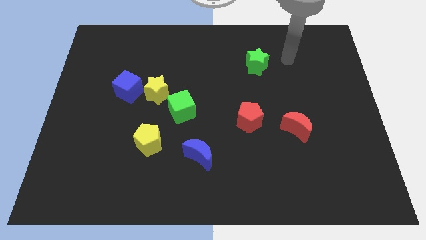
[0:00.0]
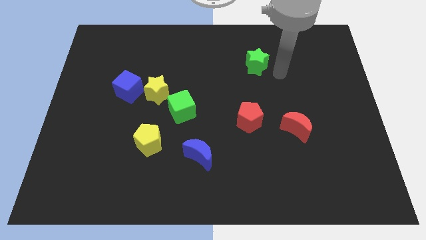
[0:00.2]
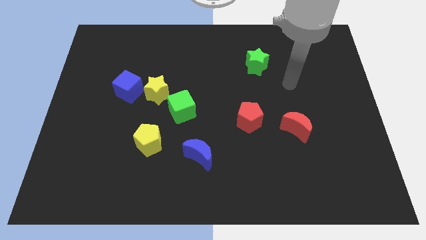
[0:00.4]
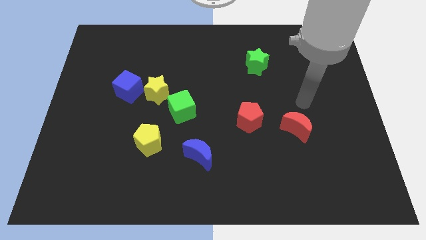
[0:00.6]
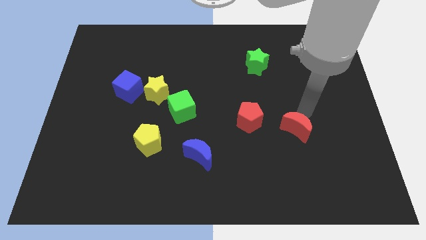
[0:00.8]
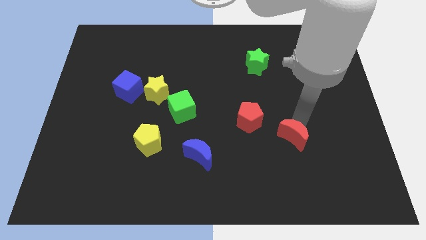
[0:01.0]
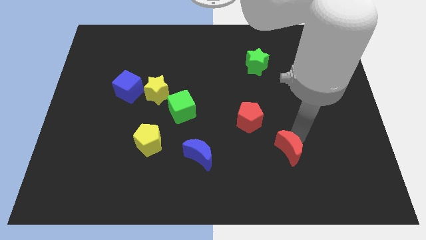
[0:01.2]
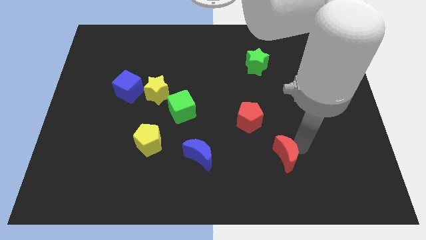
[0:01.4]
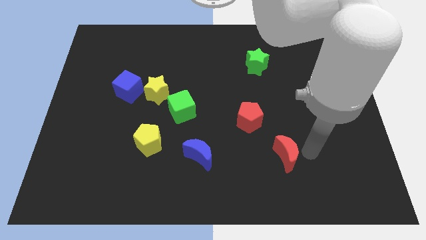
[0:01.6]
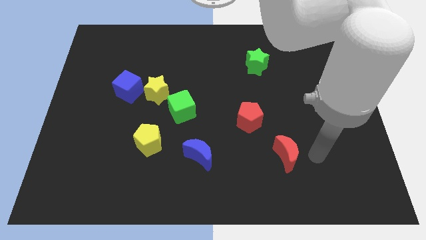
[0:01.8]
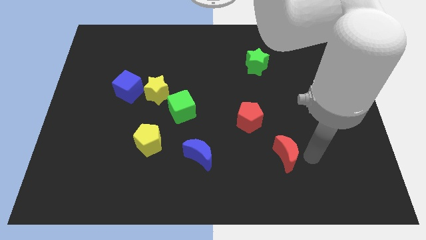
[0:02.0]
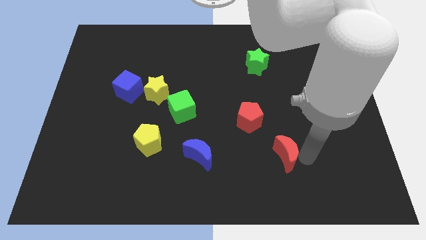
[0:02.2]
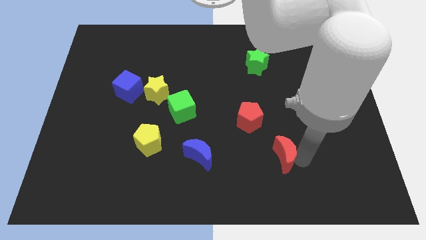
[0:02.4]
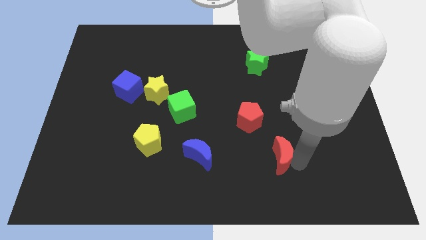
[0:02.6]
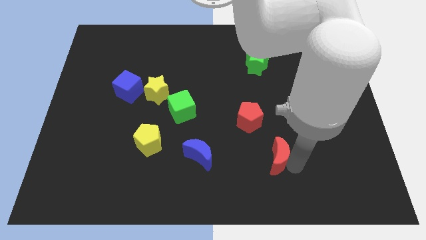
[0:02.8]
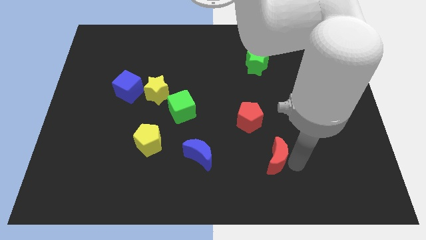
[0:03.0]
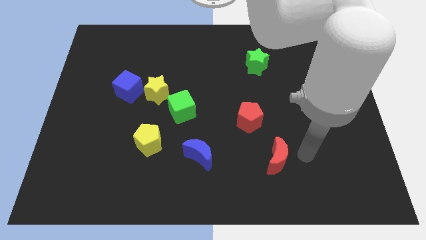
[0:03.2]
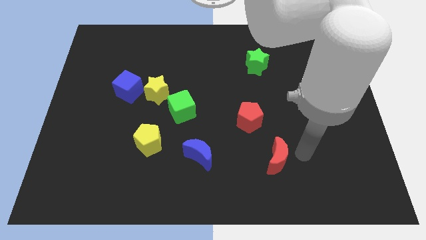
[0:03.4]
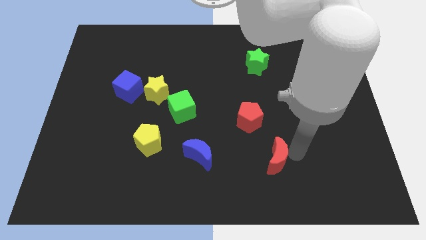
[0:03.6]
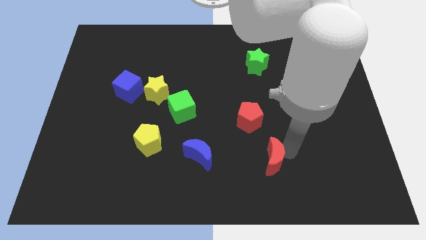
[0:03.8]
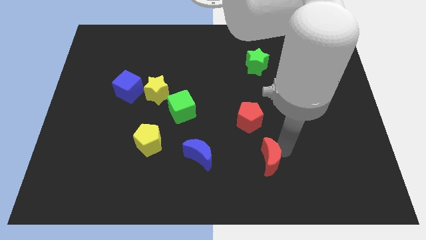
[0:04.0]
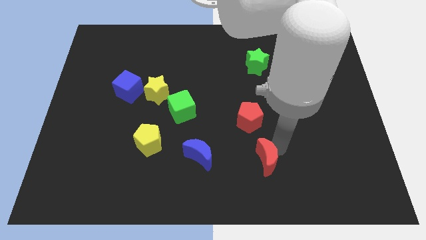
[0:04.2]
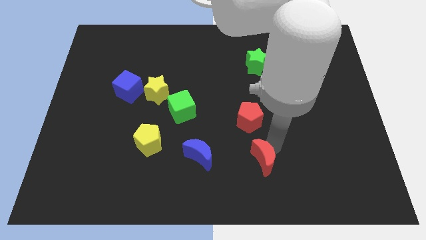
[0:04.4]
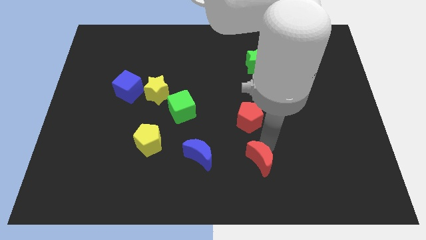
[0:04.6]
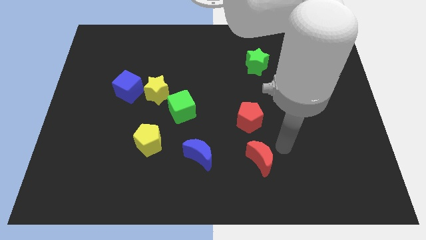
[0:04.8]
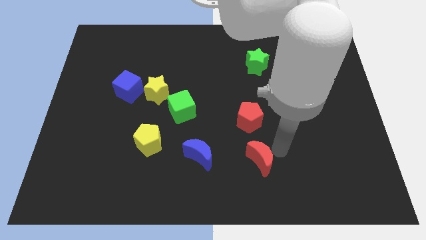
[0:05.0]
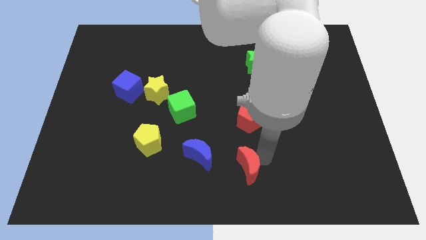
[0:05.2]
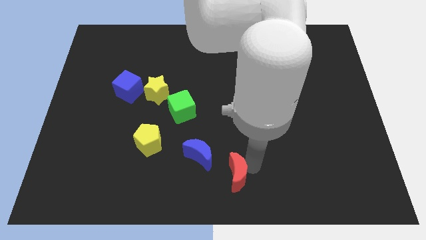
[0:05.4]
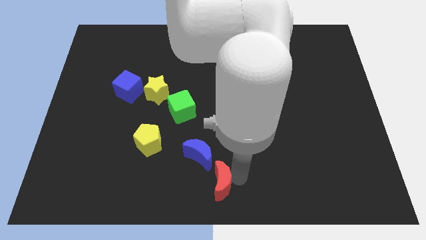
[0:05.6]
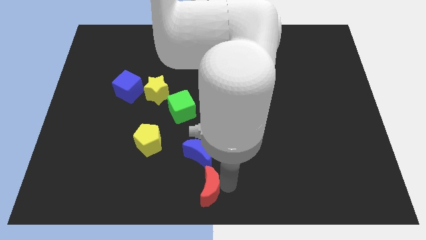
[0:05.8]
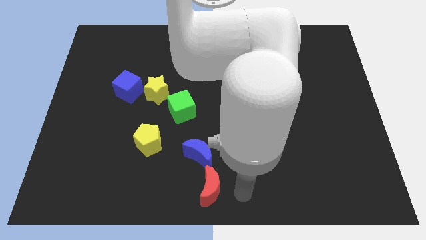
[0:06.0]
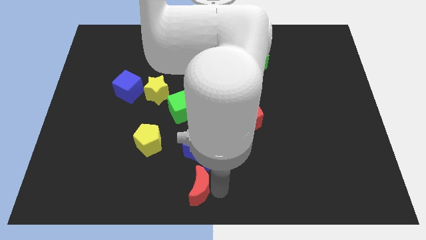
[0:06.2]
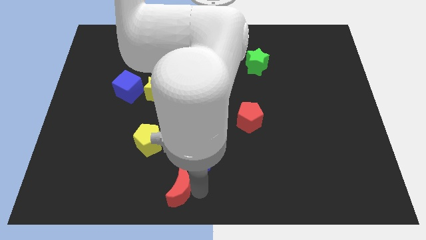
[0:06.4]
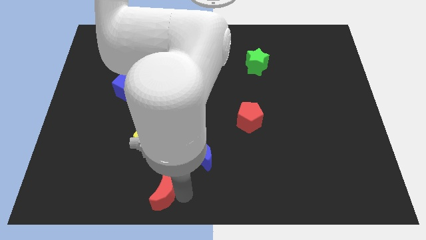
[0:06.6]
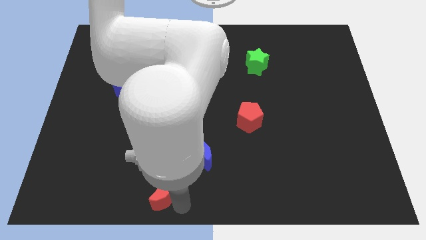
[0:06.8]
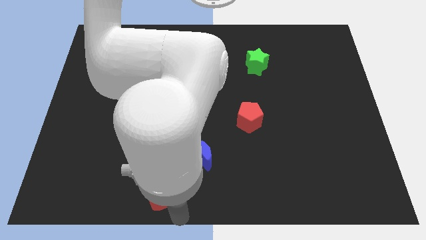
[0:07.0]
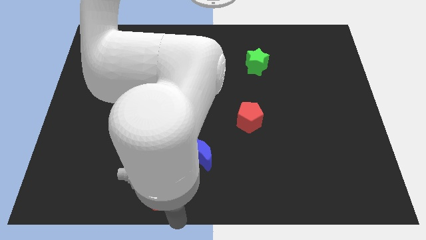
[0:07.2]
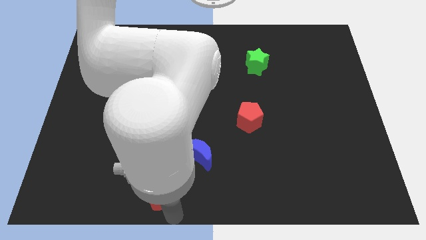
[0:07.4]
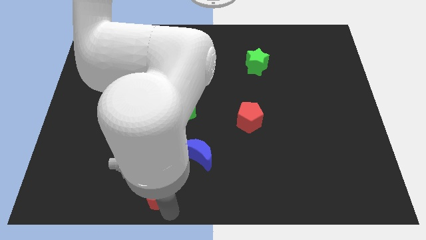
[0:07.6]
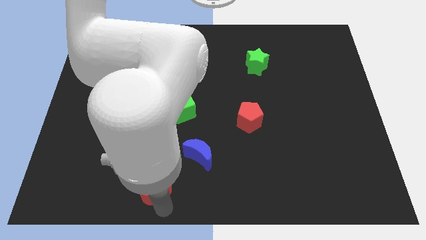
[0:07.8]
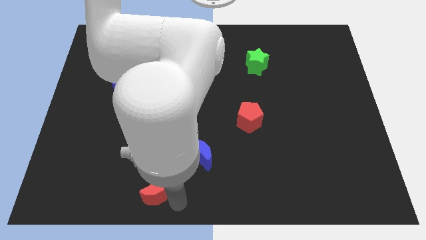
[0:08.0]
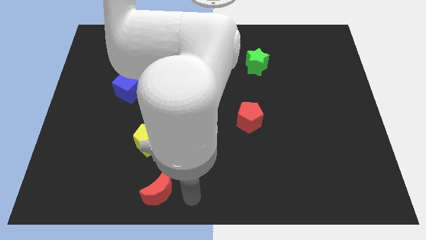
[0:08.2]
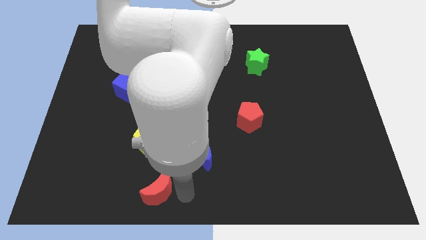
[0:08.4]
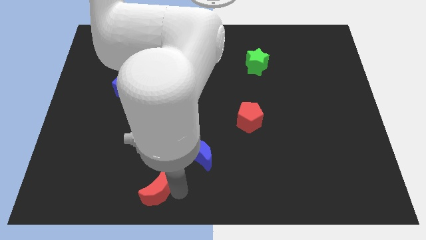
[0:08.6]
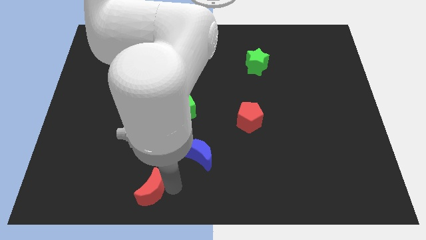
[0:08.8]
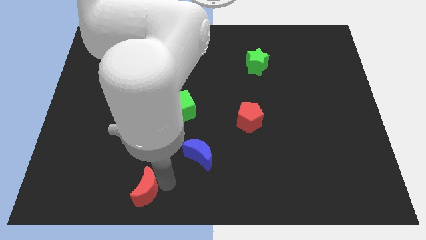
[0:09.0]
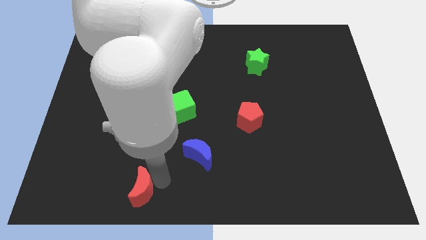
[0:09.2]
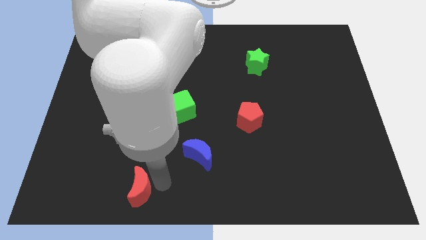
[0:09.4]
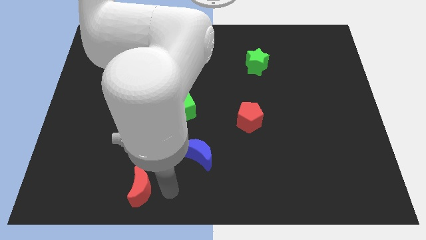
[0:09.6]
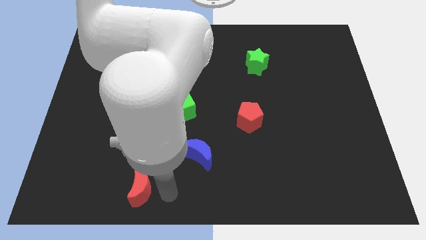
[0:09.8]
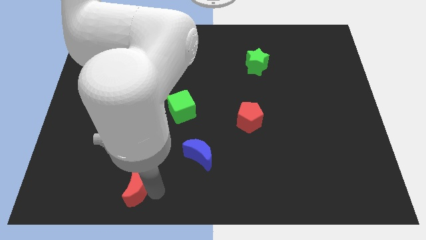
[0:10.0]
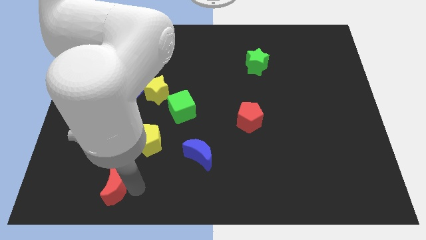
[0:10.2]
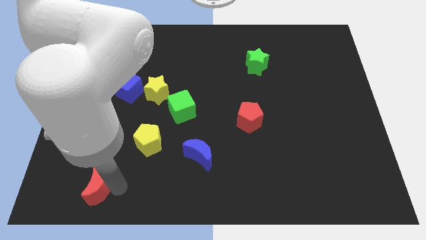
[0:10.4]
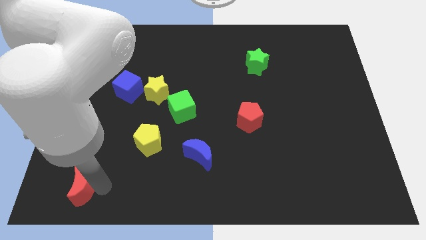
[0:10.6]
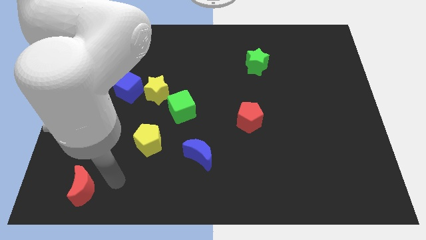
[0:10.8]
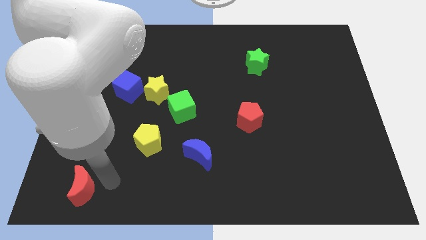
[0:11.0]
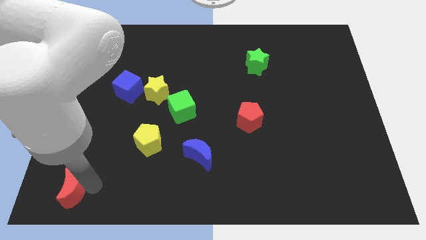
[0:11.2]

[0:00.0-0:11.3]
put the red moon to the bottom left of the board

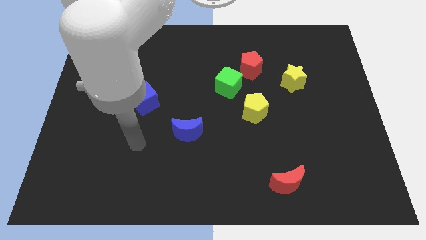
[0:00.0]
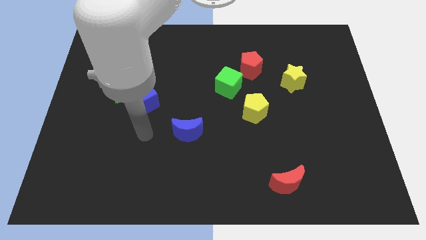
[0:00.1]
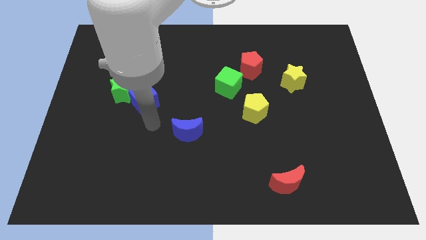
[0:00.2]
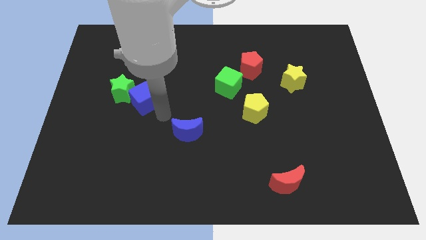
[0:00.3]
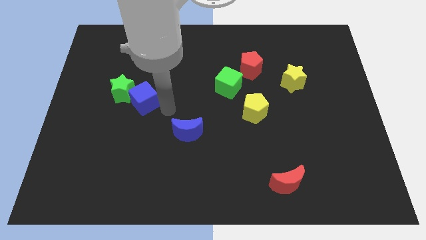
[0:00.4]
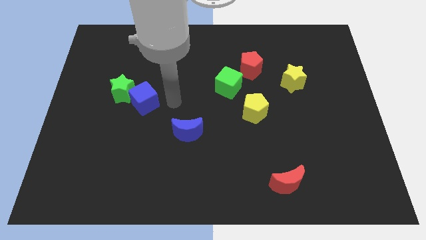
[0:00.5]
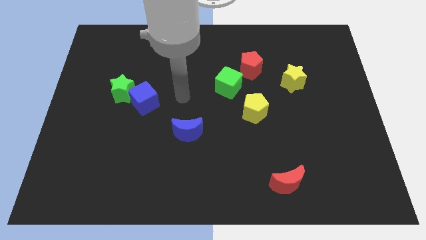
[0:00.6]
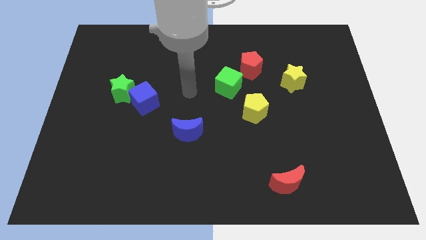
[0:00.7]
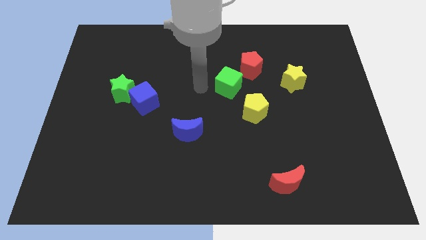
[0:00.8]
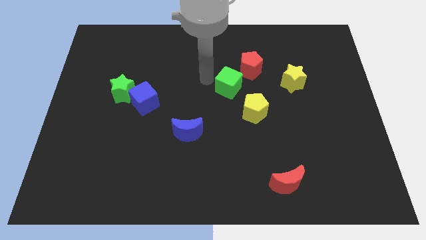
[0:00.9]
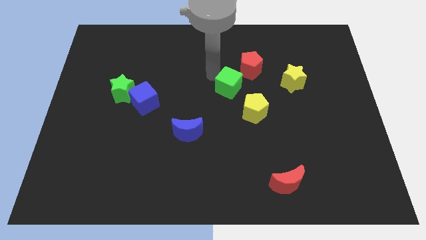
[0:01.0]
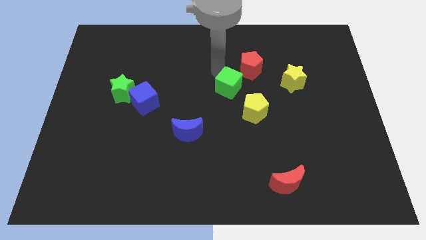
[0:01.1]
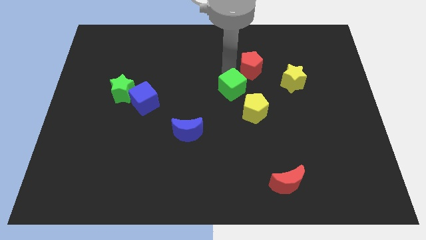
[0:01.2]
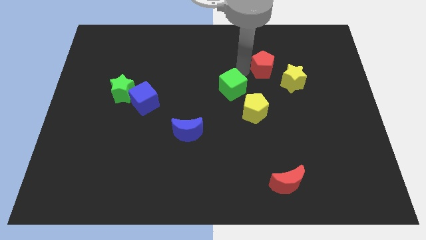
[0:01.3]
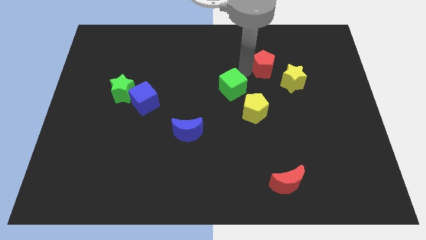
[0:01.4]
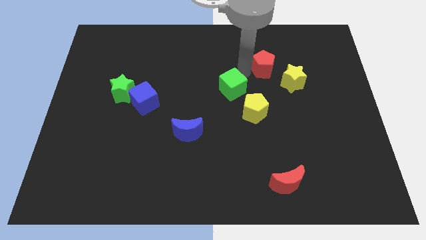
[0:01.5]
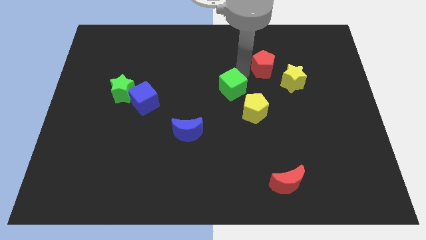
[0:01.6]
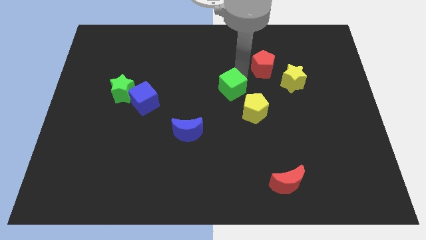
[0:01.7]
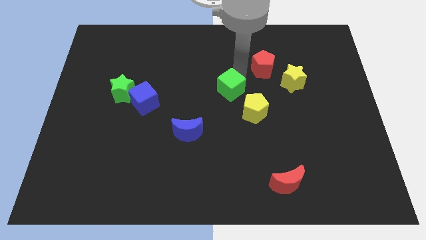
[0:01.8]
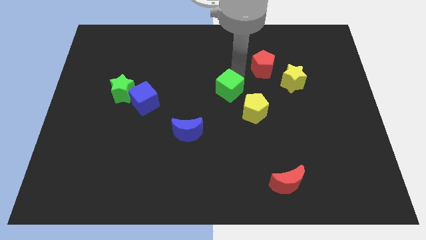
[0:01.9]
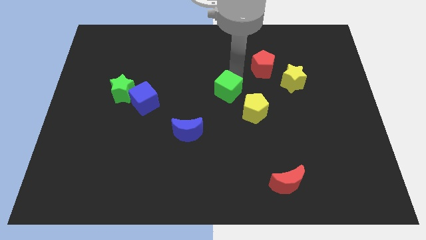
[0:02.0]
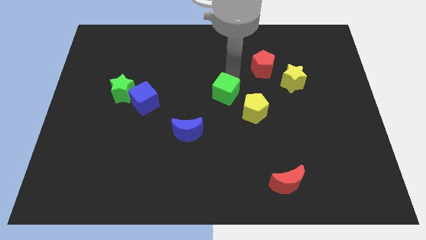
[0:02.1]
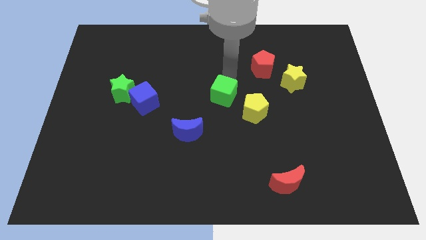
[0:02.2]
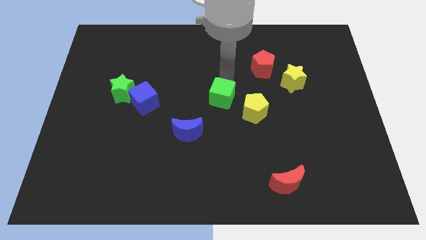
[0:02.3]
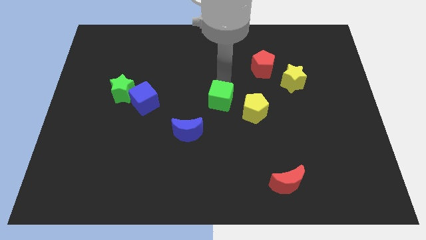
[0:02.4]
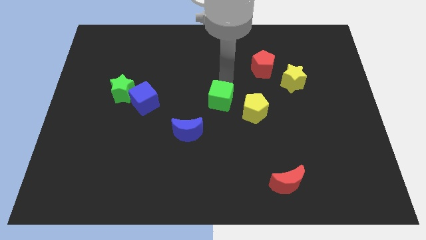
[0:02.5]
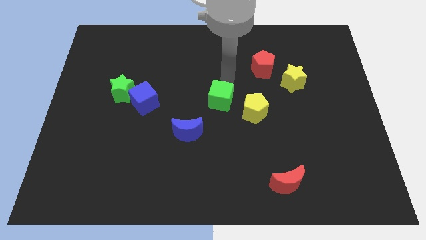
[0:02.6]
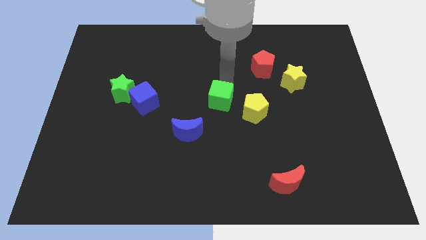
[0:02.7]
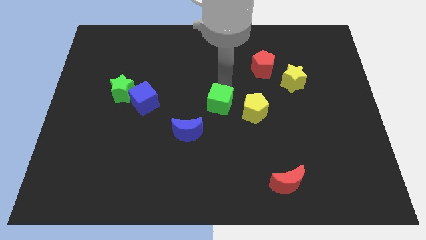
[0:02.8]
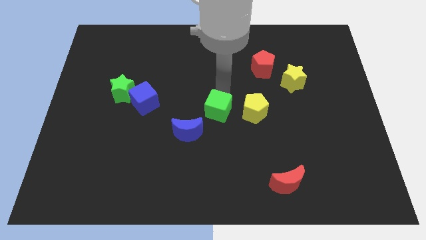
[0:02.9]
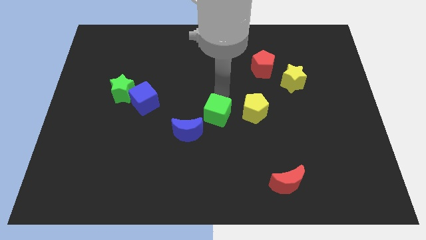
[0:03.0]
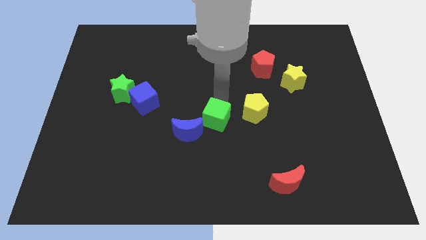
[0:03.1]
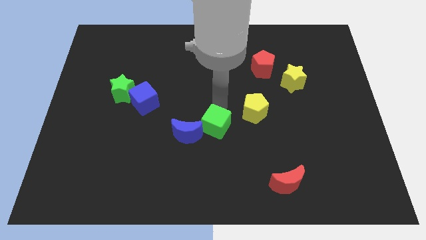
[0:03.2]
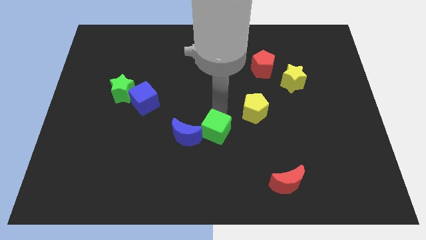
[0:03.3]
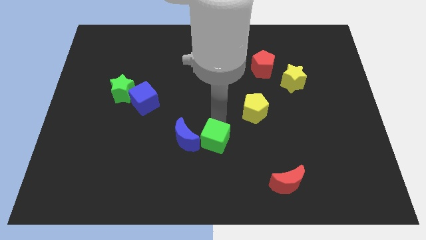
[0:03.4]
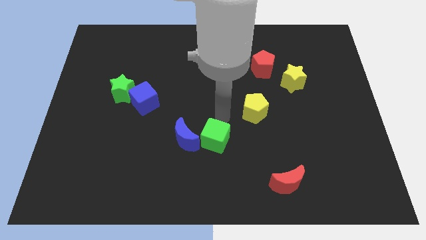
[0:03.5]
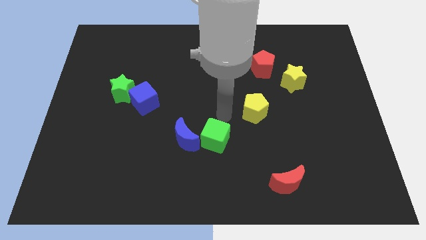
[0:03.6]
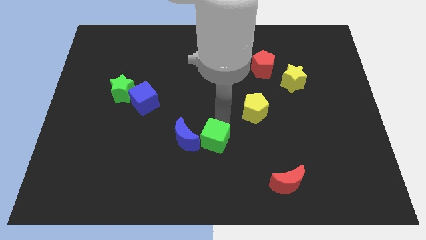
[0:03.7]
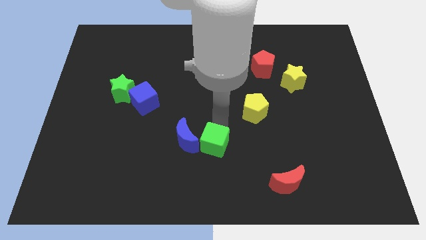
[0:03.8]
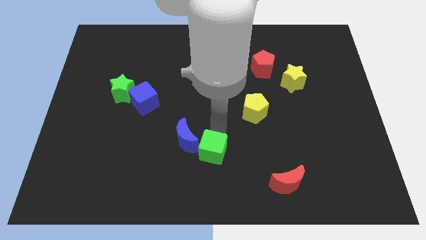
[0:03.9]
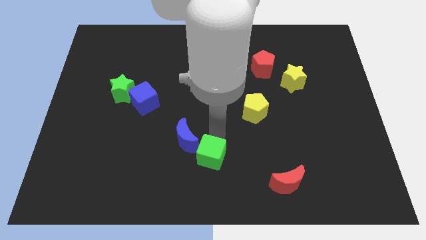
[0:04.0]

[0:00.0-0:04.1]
put the green cube to the bottom side
